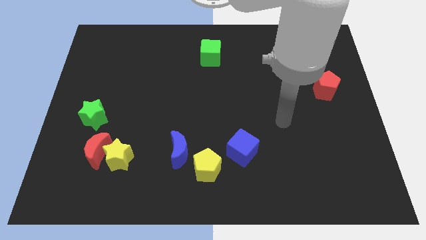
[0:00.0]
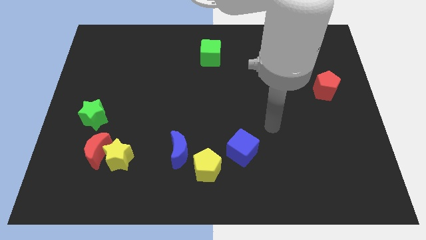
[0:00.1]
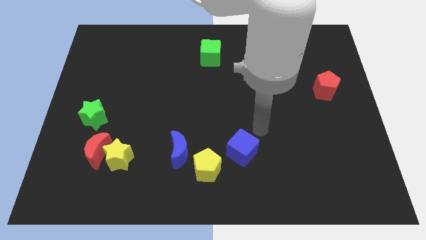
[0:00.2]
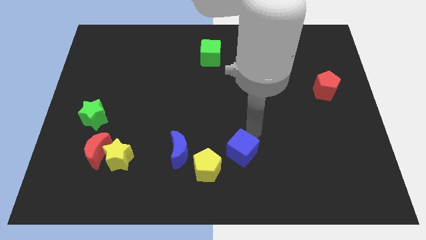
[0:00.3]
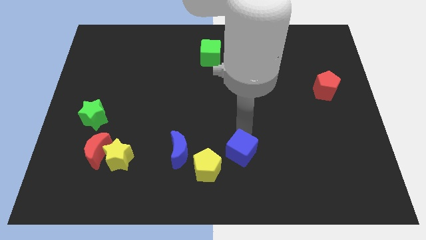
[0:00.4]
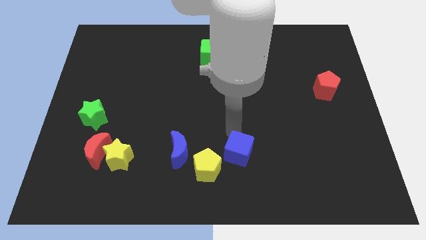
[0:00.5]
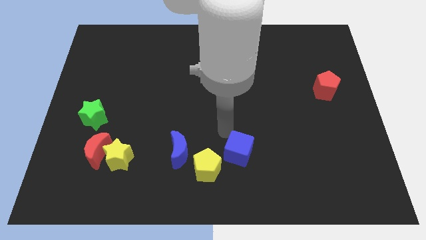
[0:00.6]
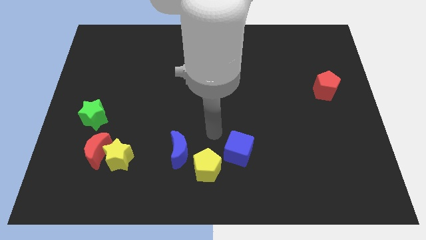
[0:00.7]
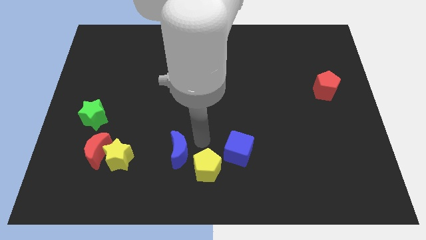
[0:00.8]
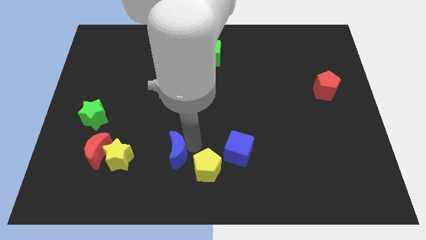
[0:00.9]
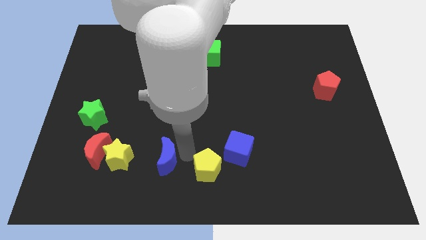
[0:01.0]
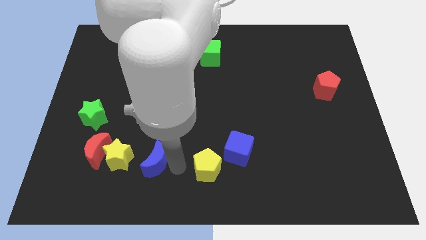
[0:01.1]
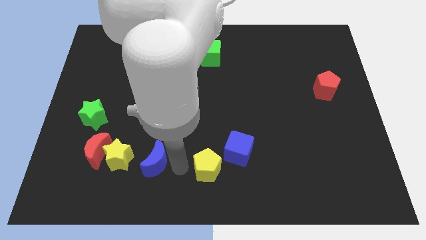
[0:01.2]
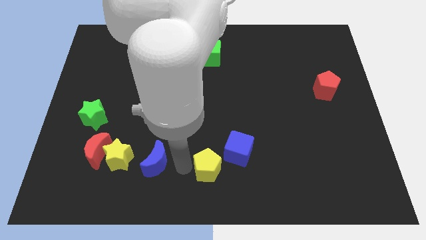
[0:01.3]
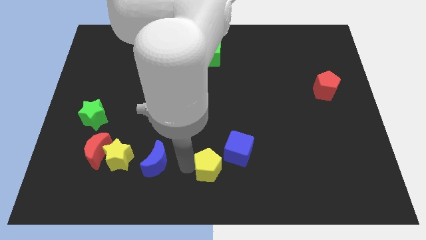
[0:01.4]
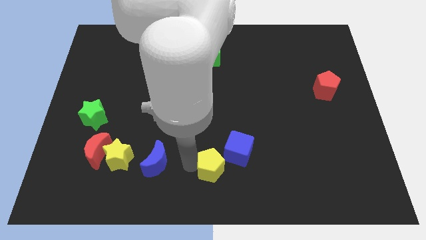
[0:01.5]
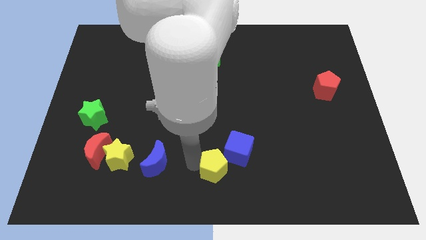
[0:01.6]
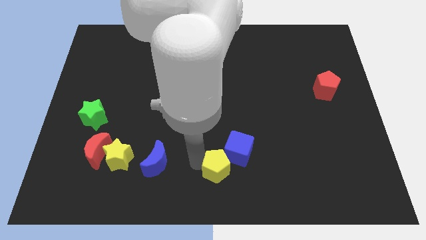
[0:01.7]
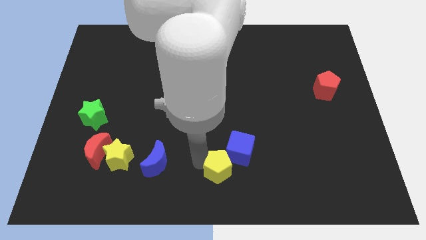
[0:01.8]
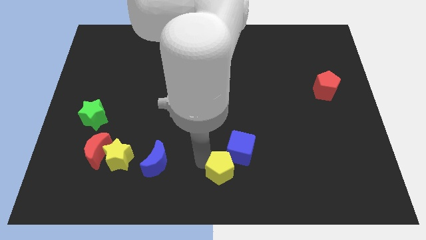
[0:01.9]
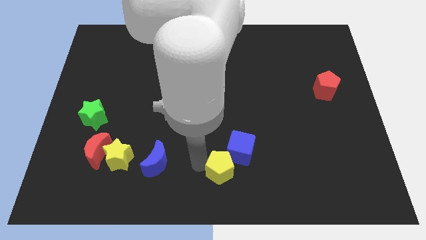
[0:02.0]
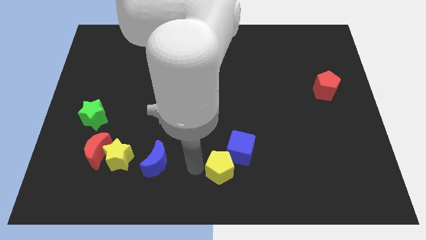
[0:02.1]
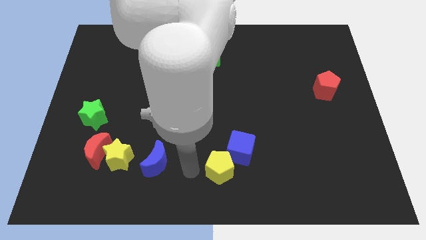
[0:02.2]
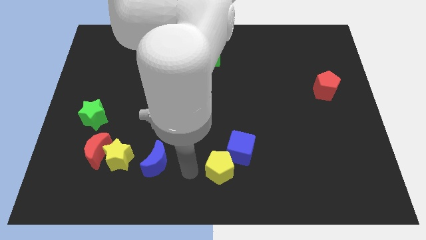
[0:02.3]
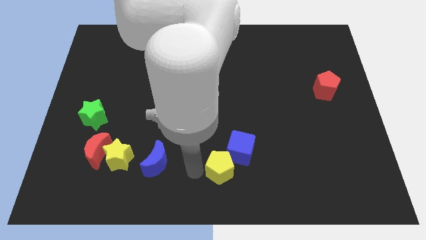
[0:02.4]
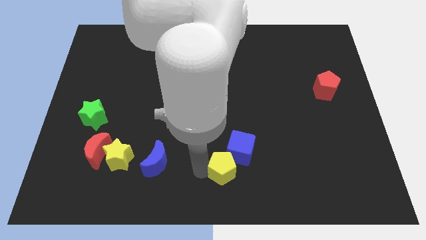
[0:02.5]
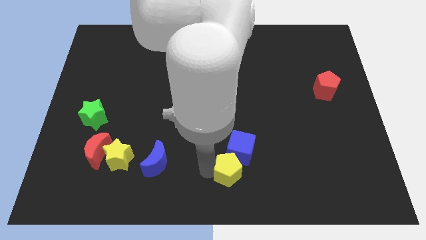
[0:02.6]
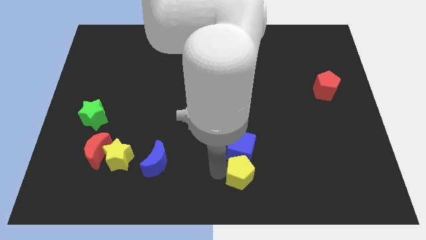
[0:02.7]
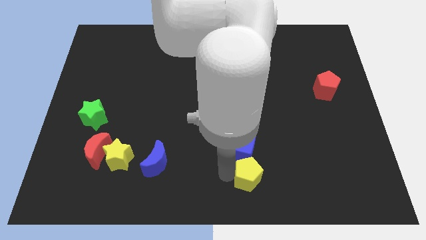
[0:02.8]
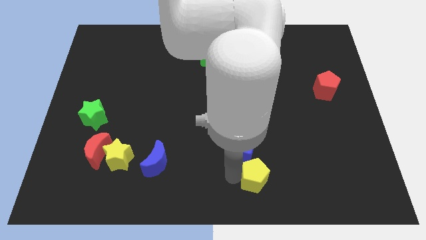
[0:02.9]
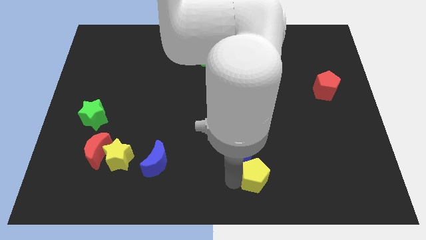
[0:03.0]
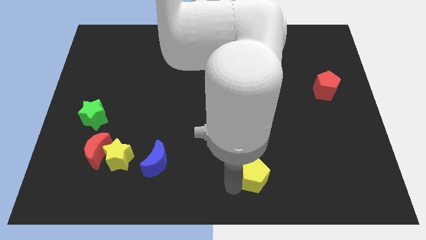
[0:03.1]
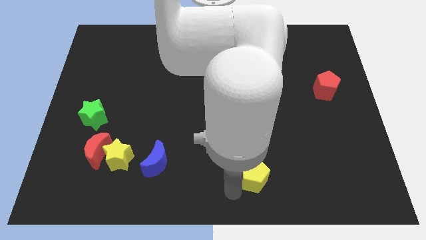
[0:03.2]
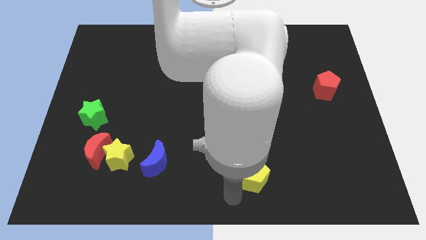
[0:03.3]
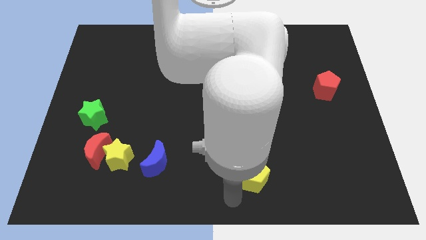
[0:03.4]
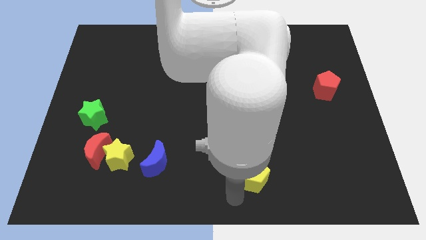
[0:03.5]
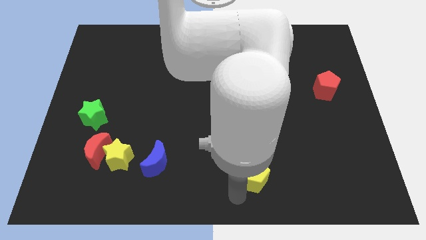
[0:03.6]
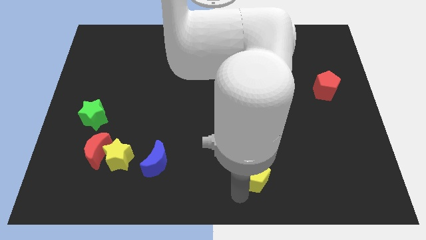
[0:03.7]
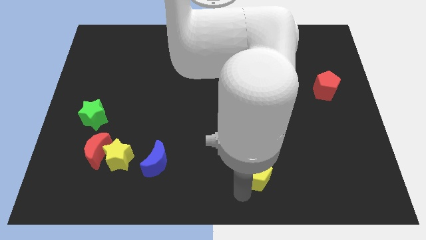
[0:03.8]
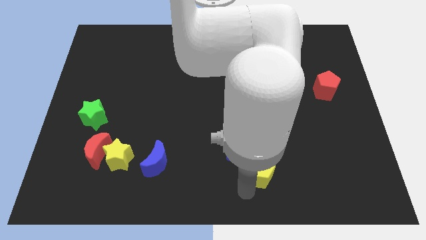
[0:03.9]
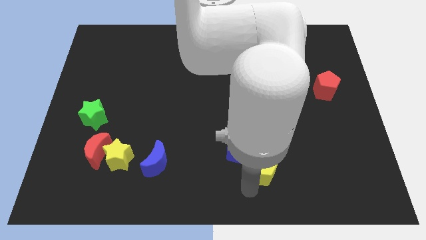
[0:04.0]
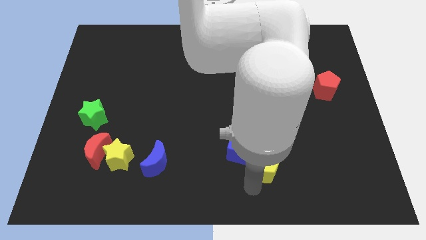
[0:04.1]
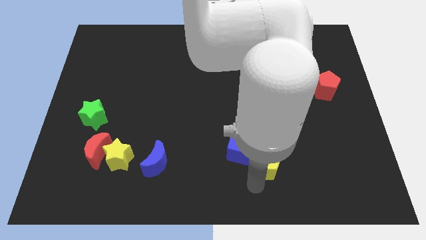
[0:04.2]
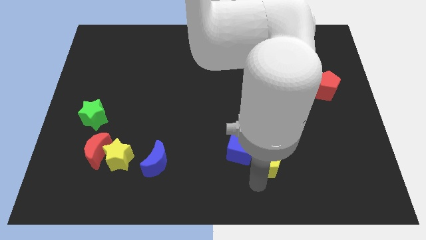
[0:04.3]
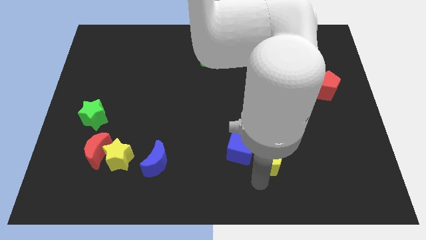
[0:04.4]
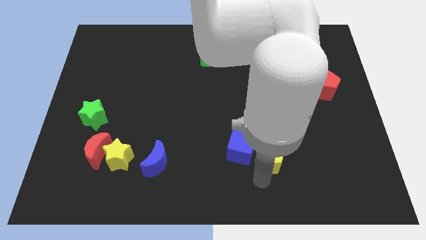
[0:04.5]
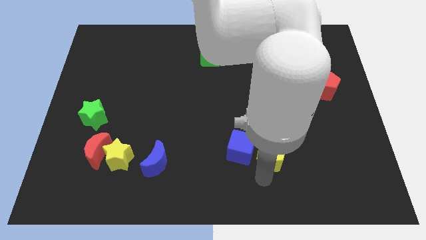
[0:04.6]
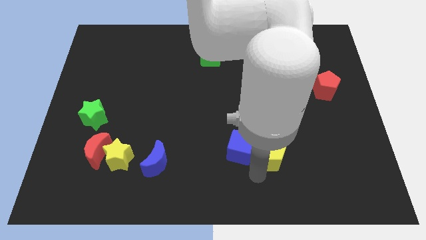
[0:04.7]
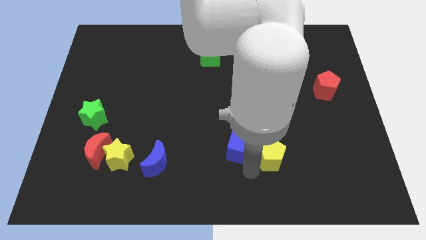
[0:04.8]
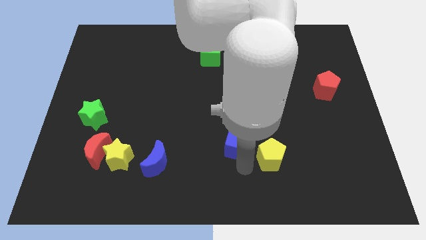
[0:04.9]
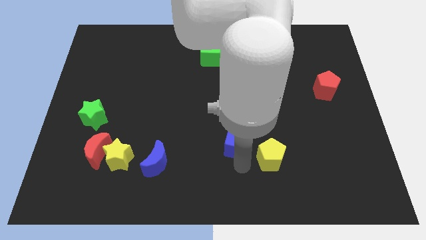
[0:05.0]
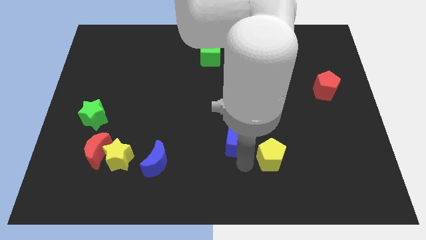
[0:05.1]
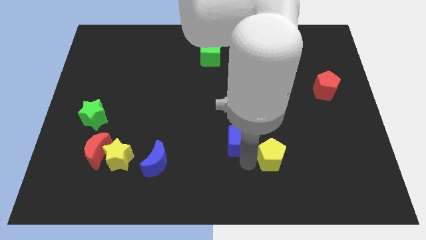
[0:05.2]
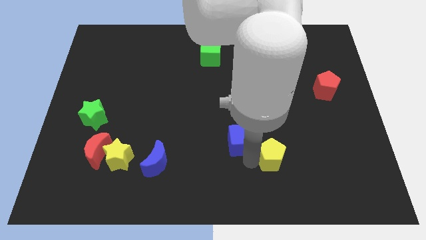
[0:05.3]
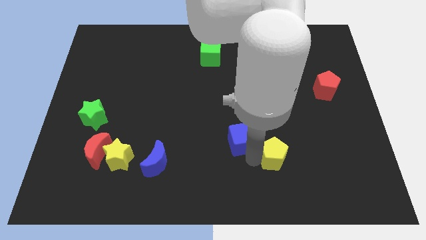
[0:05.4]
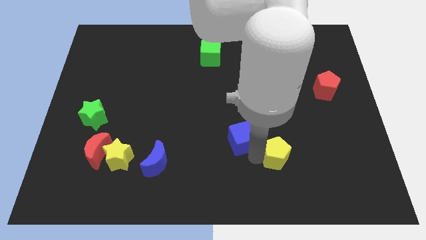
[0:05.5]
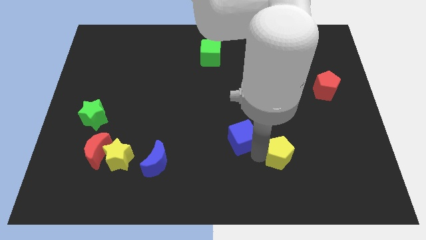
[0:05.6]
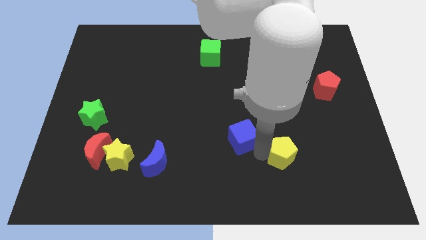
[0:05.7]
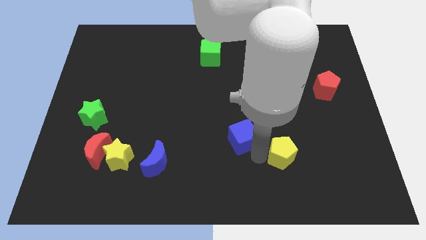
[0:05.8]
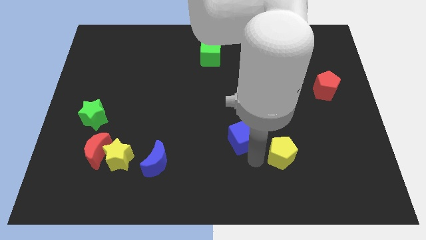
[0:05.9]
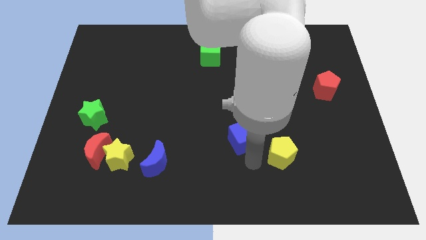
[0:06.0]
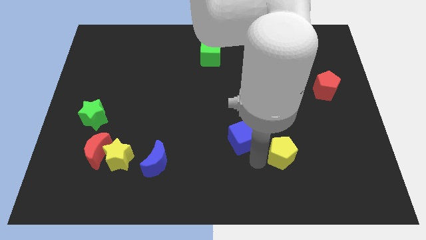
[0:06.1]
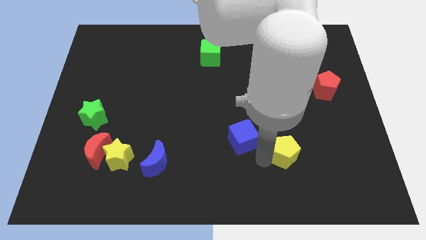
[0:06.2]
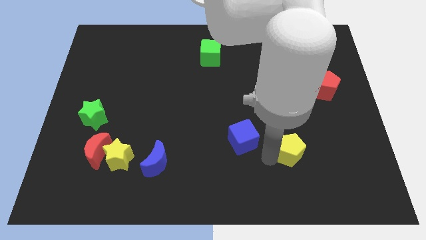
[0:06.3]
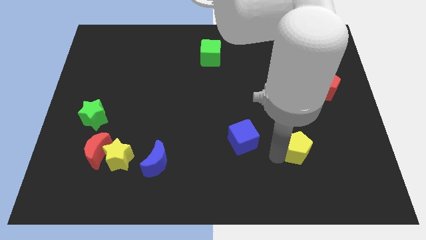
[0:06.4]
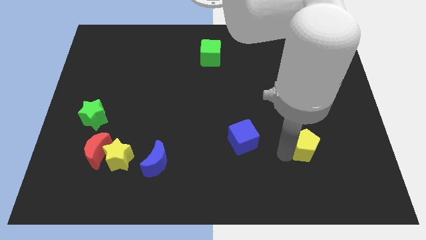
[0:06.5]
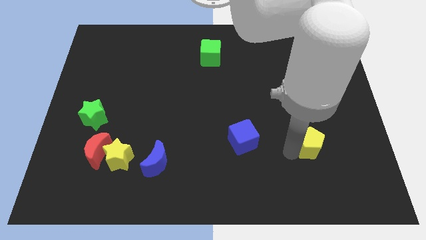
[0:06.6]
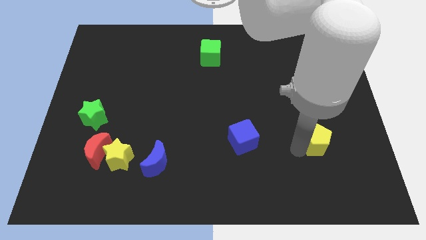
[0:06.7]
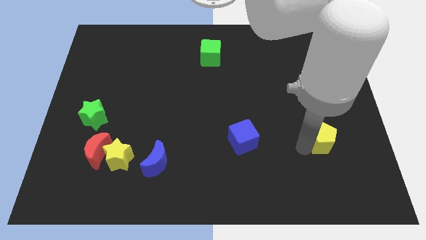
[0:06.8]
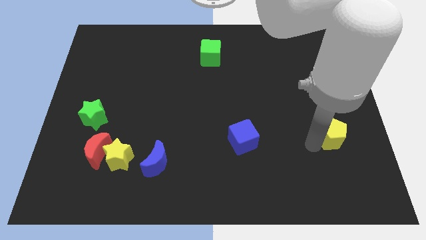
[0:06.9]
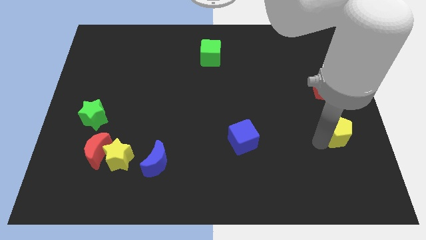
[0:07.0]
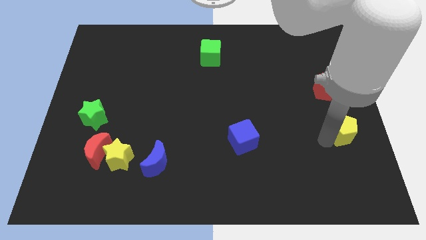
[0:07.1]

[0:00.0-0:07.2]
put the yellow pentagon to the center right
